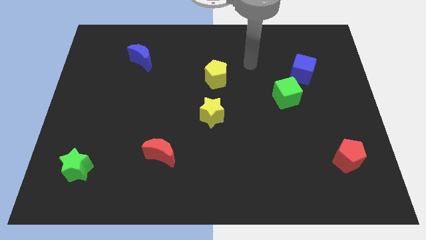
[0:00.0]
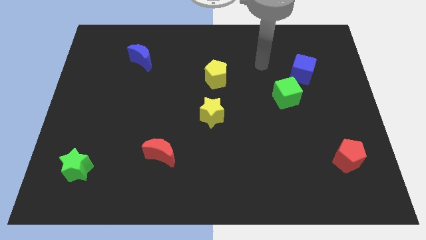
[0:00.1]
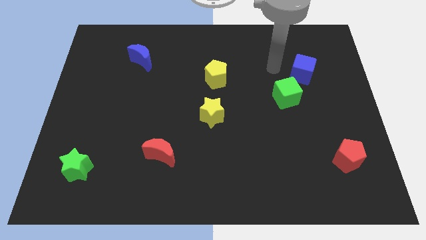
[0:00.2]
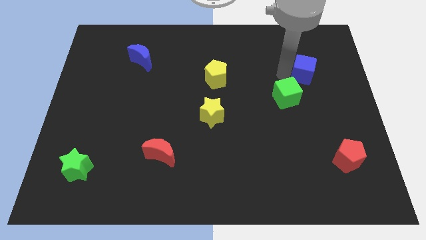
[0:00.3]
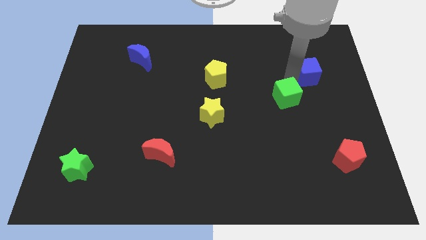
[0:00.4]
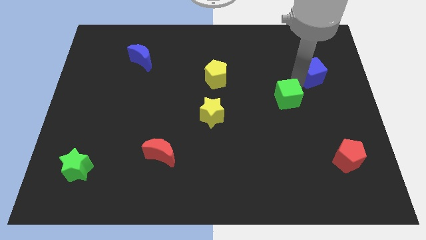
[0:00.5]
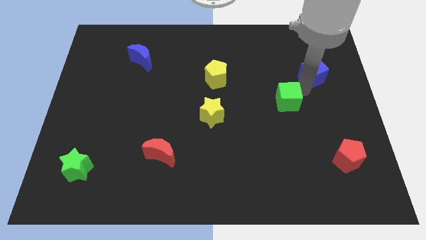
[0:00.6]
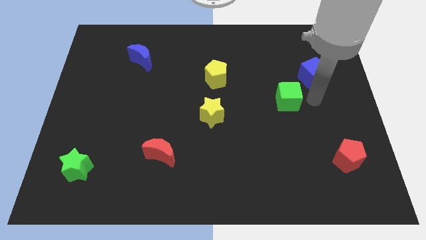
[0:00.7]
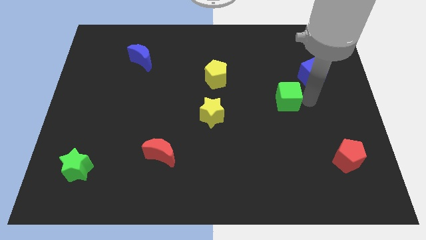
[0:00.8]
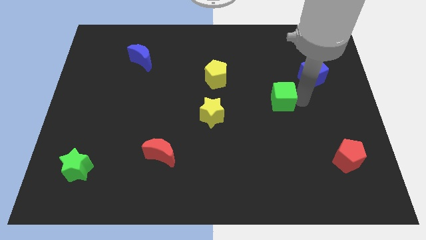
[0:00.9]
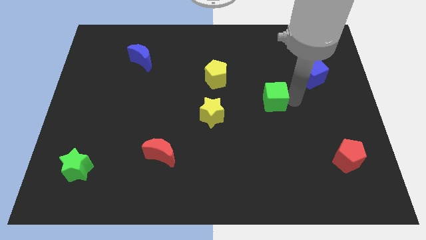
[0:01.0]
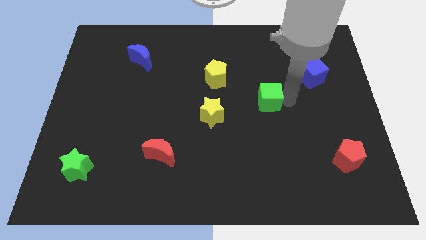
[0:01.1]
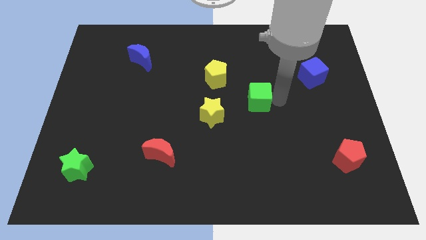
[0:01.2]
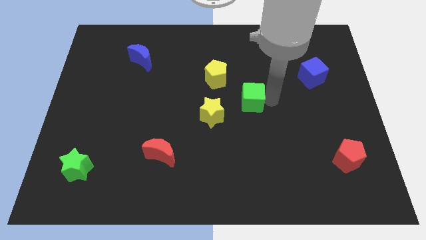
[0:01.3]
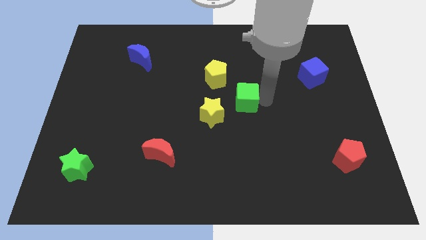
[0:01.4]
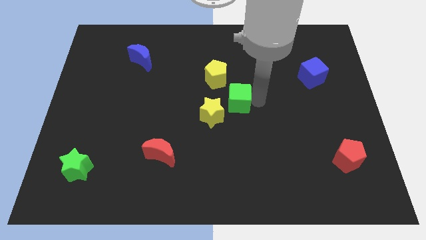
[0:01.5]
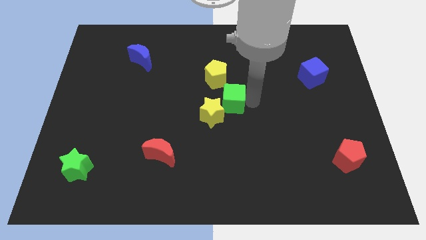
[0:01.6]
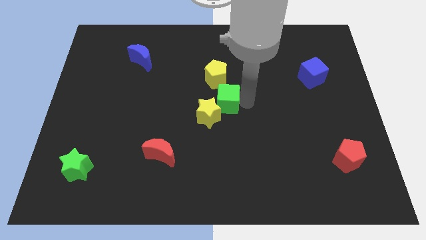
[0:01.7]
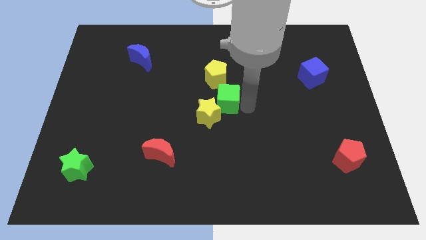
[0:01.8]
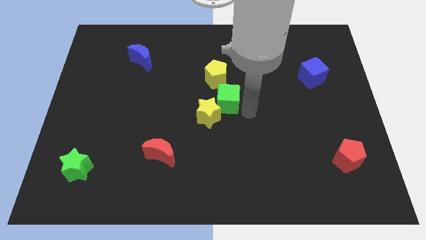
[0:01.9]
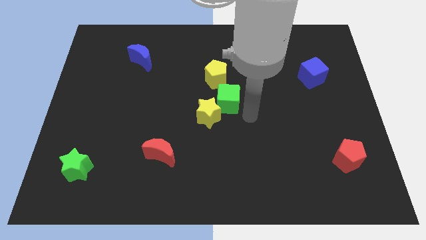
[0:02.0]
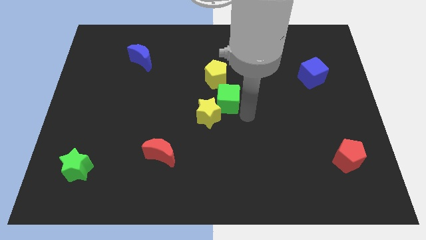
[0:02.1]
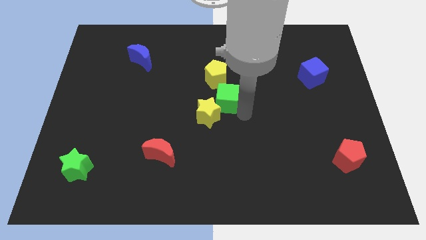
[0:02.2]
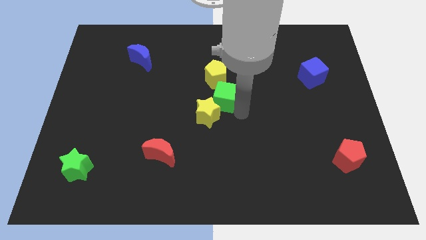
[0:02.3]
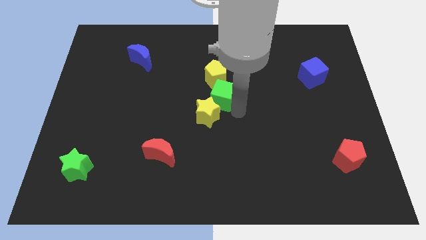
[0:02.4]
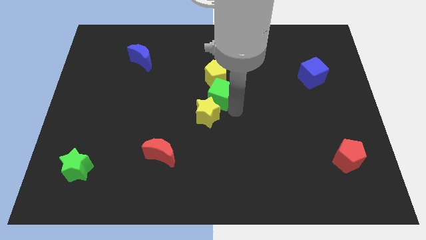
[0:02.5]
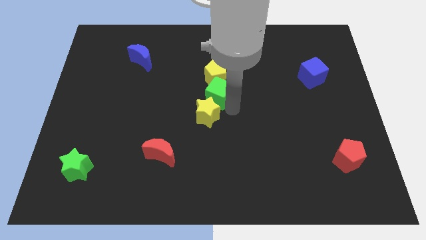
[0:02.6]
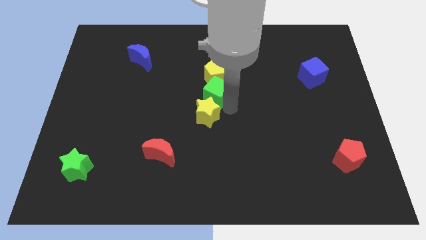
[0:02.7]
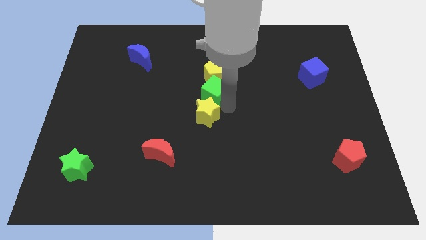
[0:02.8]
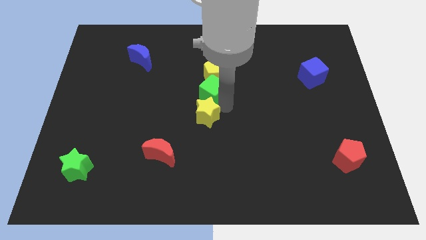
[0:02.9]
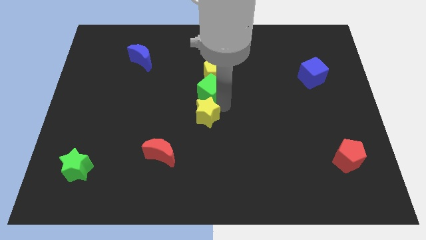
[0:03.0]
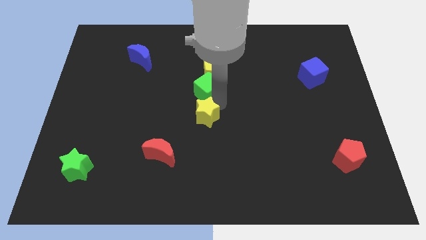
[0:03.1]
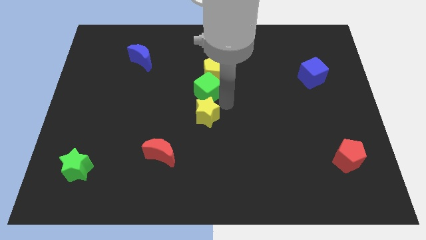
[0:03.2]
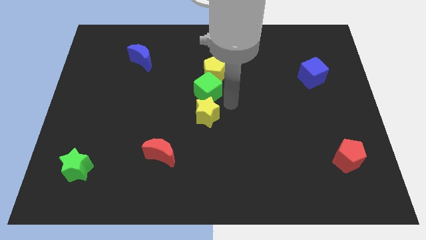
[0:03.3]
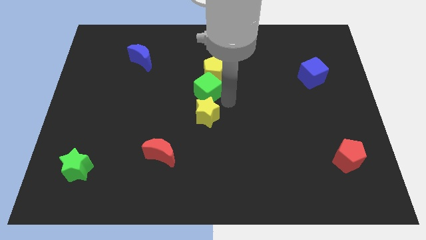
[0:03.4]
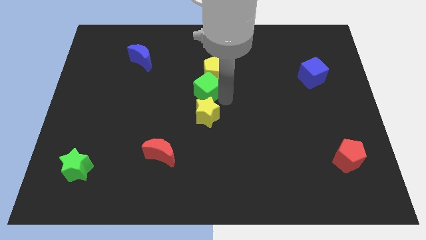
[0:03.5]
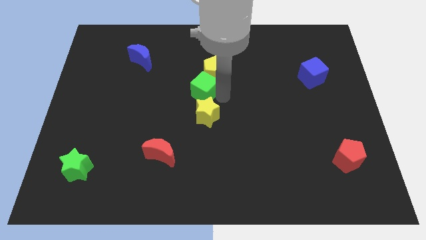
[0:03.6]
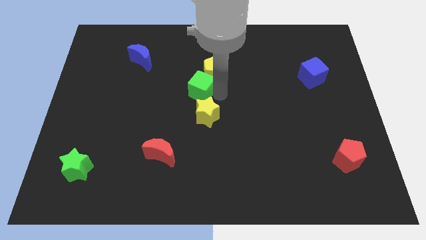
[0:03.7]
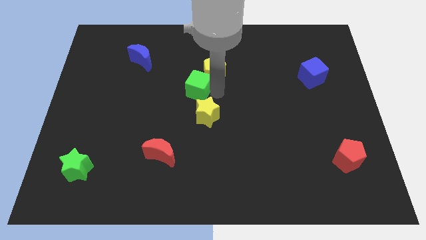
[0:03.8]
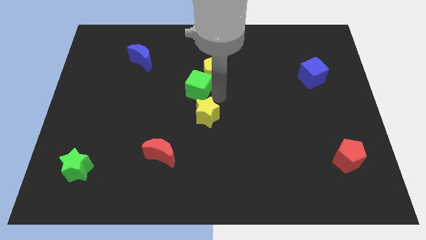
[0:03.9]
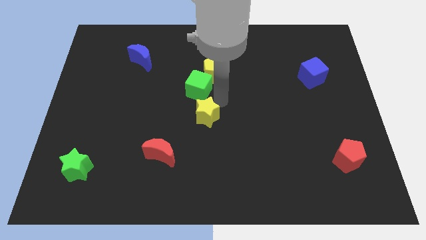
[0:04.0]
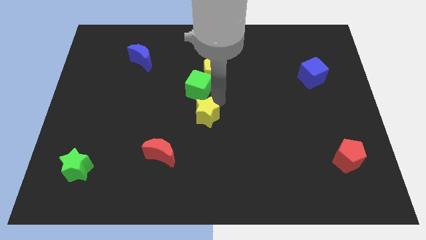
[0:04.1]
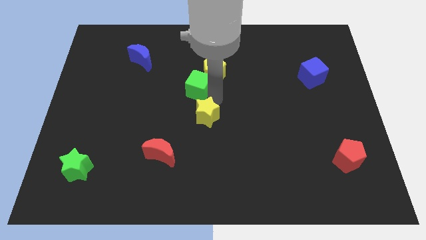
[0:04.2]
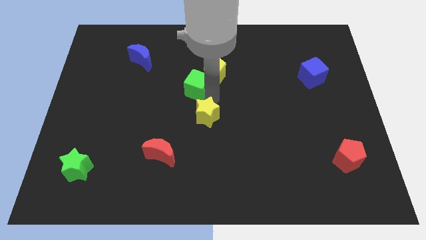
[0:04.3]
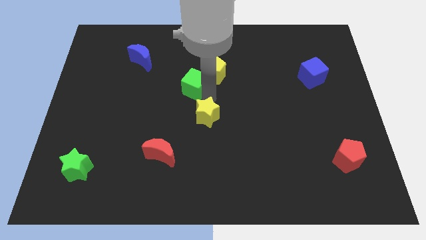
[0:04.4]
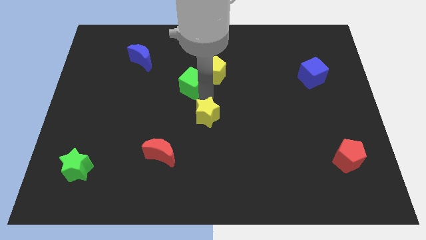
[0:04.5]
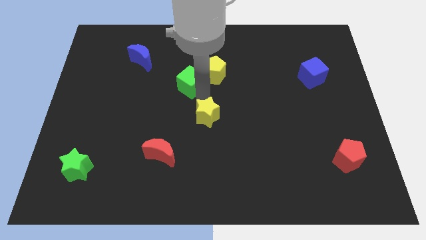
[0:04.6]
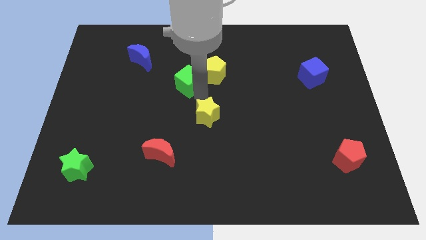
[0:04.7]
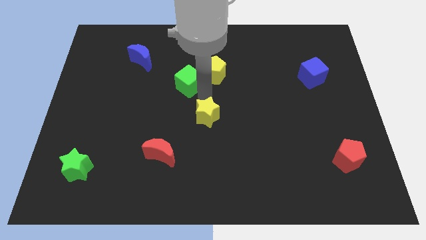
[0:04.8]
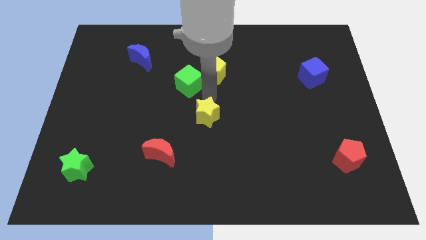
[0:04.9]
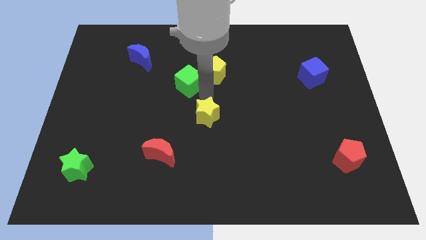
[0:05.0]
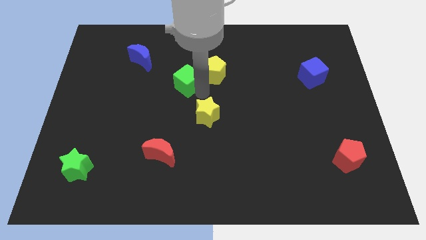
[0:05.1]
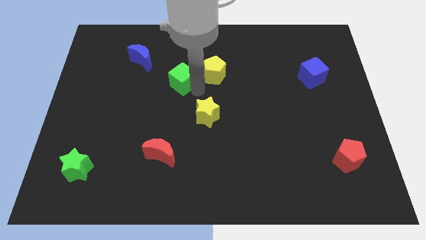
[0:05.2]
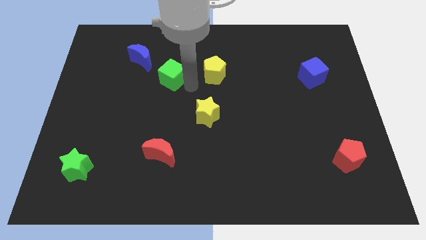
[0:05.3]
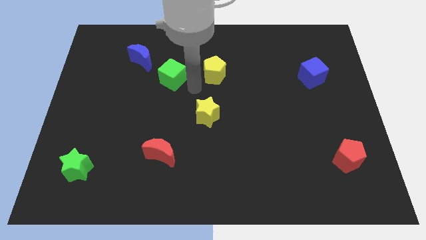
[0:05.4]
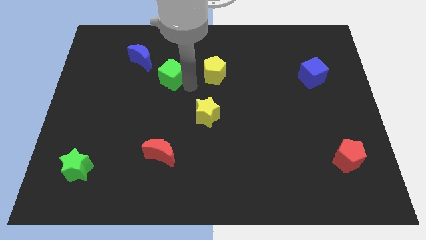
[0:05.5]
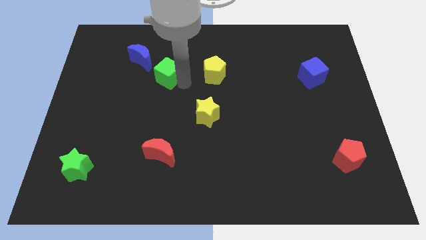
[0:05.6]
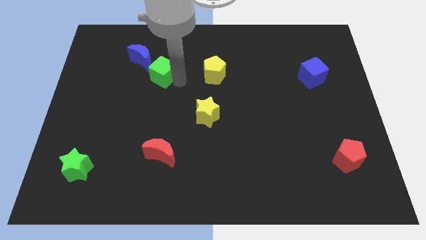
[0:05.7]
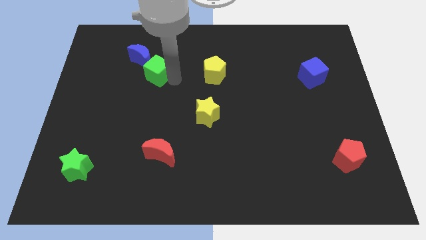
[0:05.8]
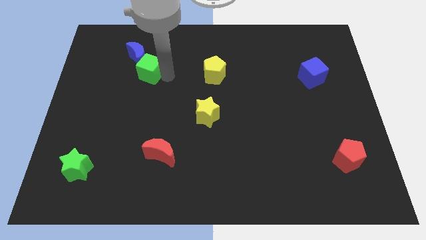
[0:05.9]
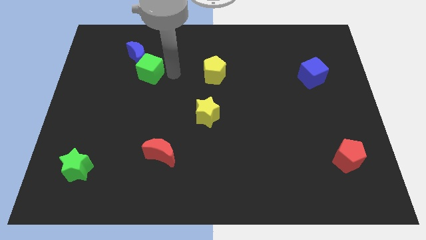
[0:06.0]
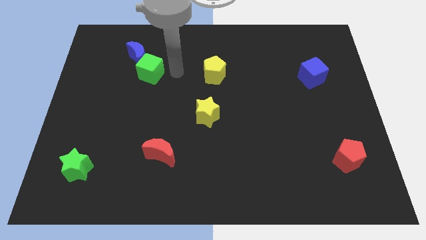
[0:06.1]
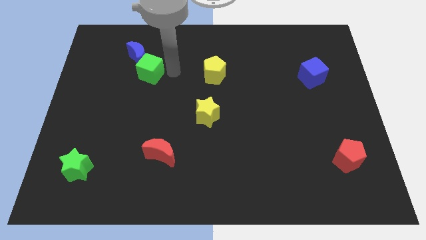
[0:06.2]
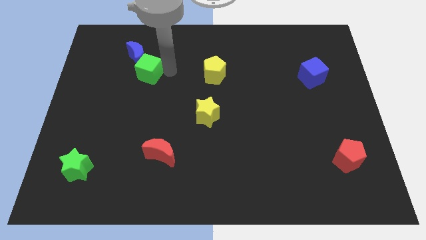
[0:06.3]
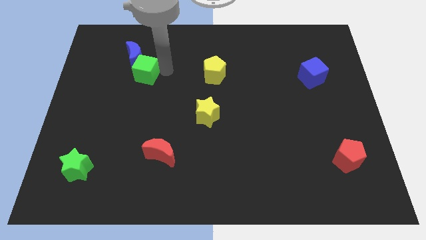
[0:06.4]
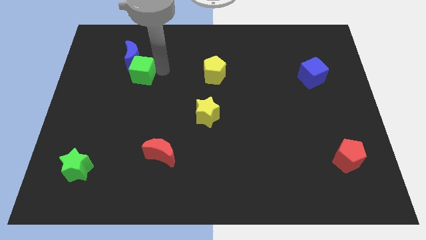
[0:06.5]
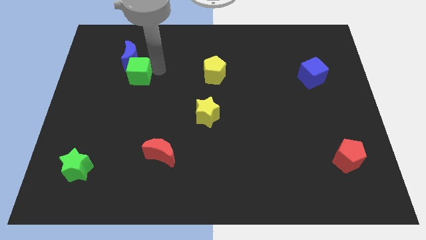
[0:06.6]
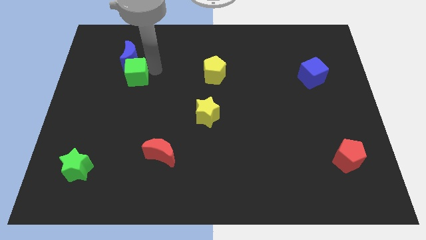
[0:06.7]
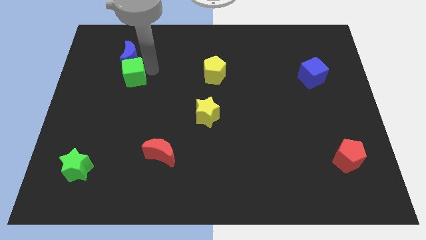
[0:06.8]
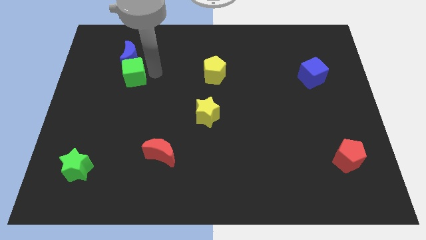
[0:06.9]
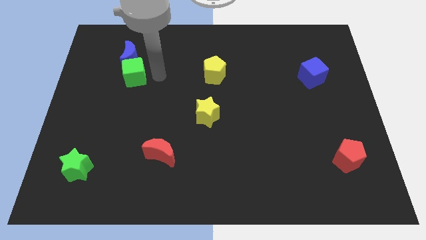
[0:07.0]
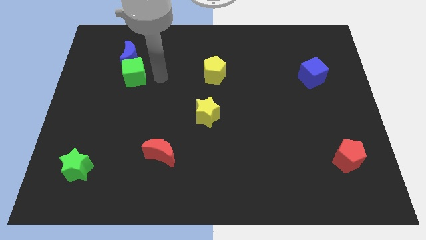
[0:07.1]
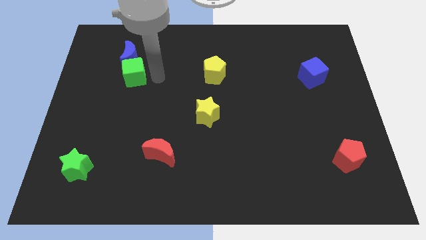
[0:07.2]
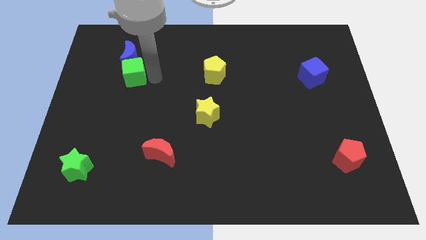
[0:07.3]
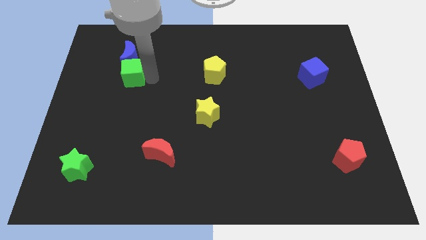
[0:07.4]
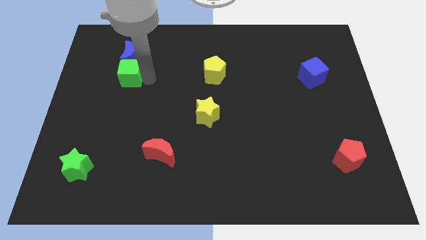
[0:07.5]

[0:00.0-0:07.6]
slide the green cube diagonally down and to the left of the blue moon

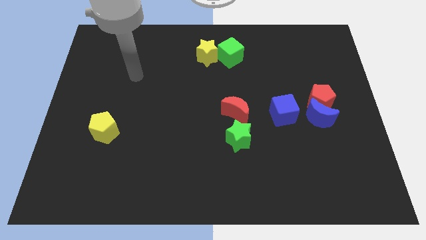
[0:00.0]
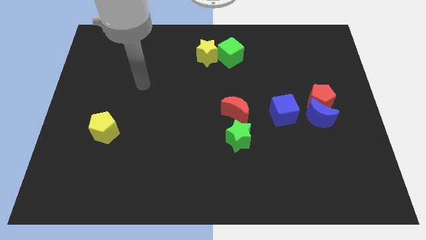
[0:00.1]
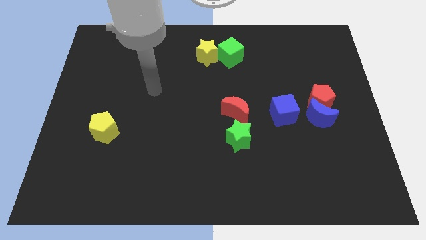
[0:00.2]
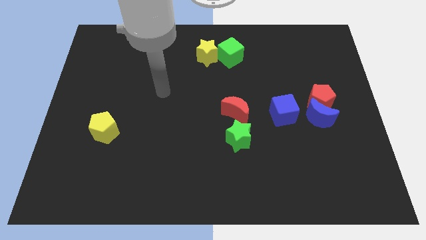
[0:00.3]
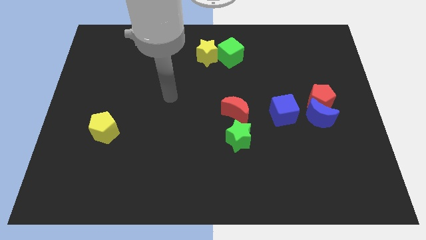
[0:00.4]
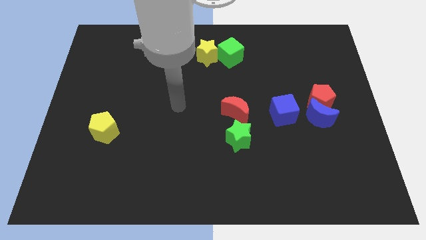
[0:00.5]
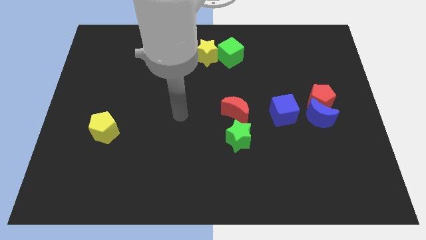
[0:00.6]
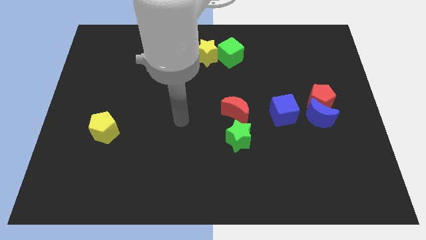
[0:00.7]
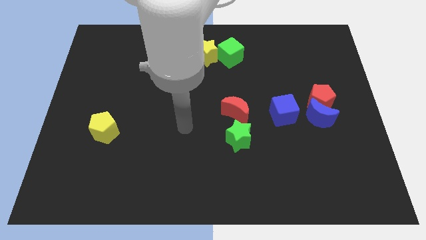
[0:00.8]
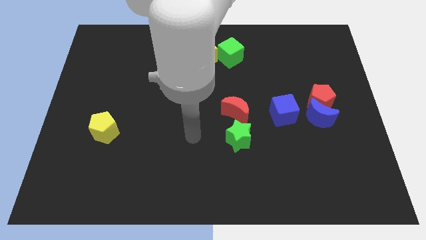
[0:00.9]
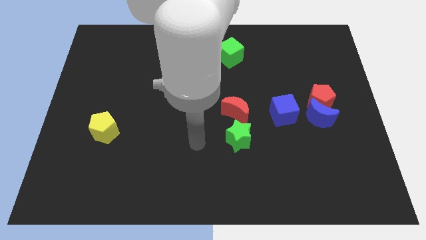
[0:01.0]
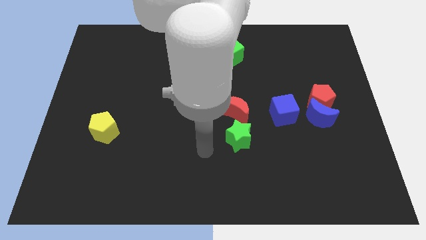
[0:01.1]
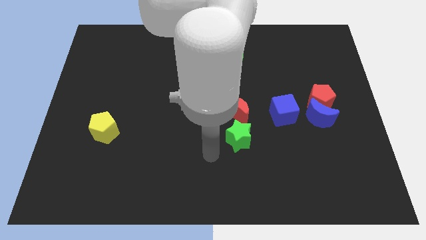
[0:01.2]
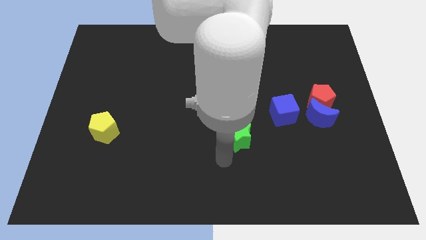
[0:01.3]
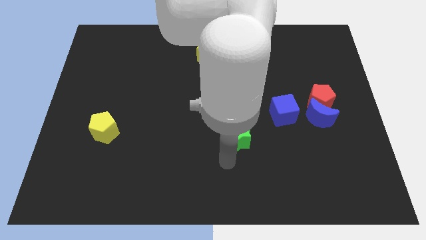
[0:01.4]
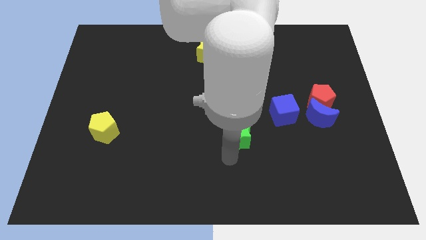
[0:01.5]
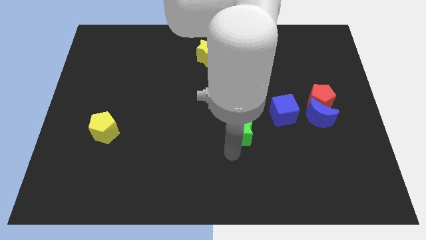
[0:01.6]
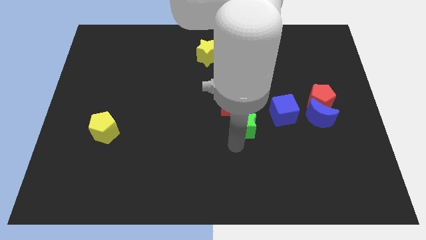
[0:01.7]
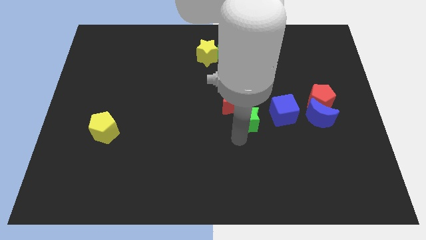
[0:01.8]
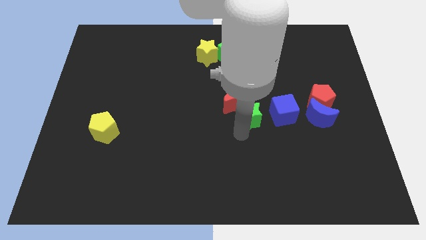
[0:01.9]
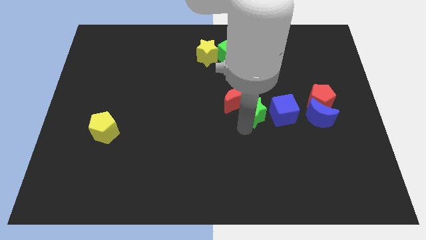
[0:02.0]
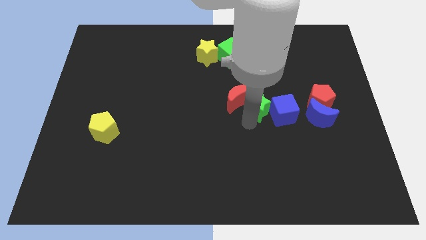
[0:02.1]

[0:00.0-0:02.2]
push the green star to the top left side of the blue cube
